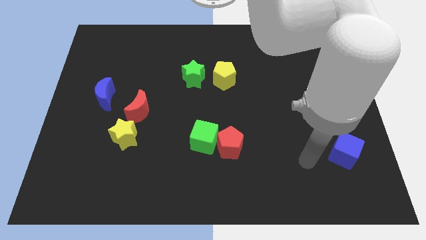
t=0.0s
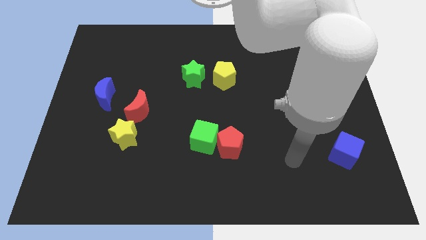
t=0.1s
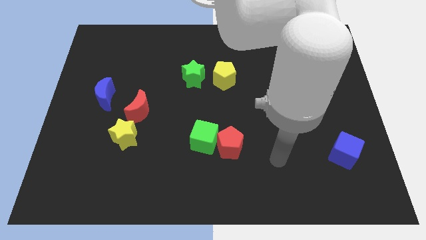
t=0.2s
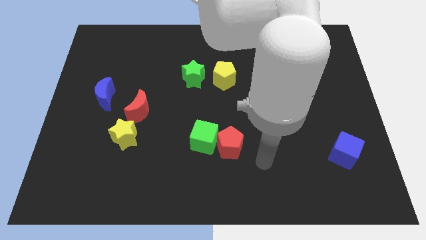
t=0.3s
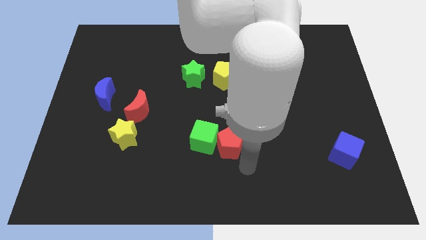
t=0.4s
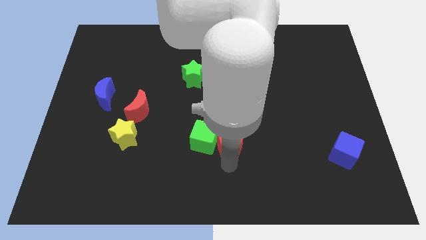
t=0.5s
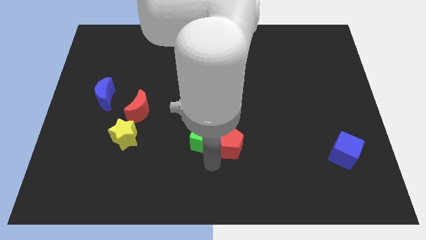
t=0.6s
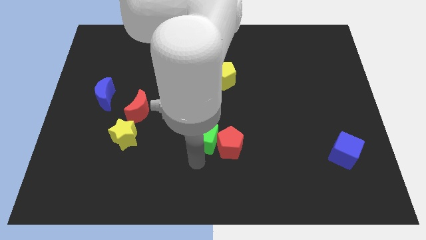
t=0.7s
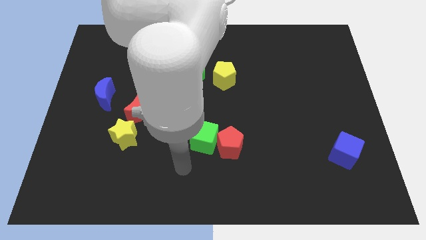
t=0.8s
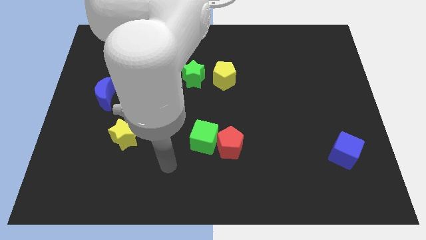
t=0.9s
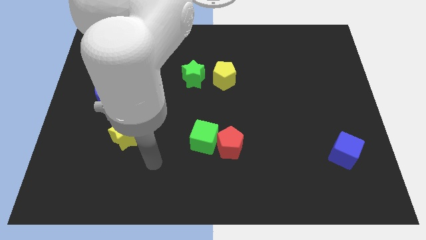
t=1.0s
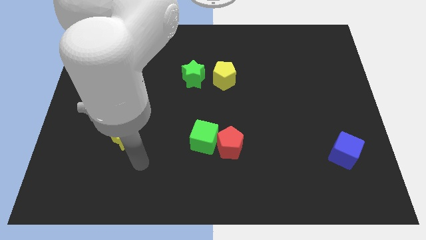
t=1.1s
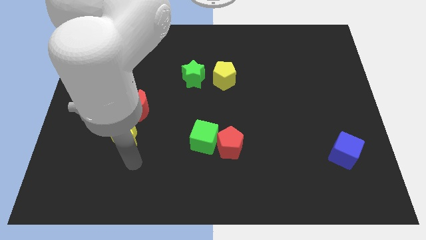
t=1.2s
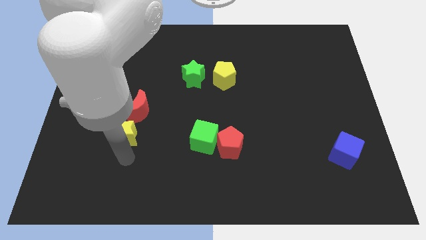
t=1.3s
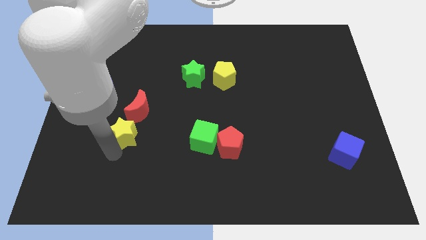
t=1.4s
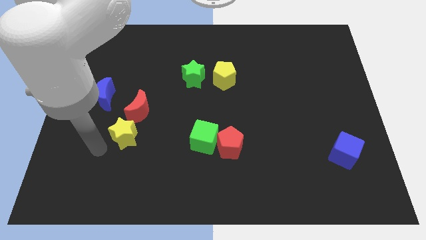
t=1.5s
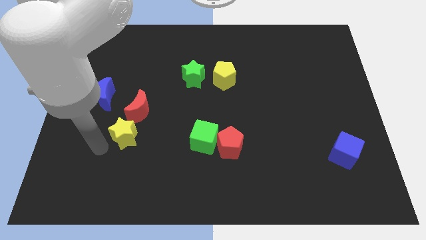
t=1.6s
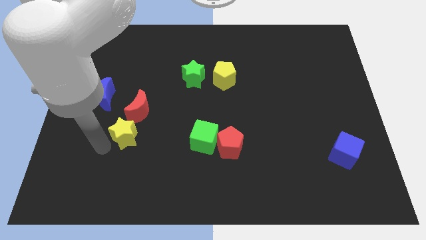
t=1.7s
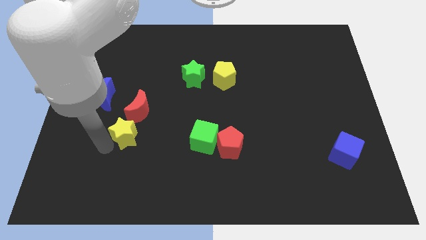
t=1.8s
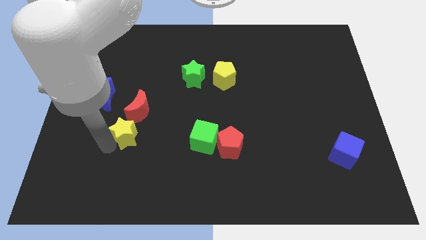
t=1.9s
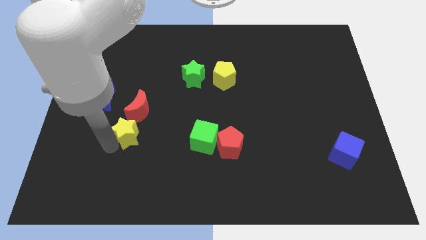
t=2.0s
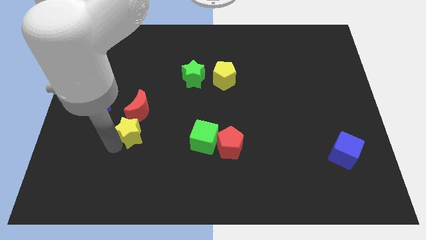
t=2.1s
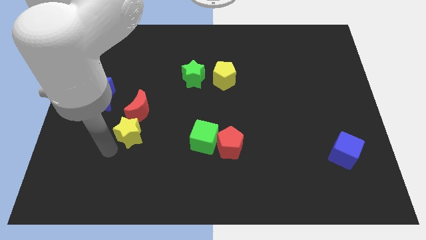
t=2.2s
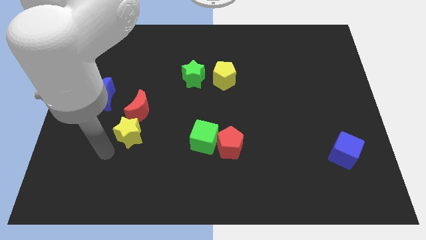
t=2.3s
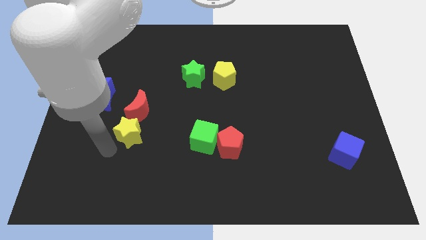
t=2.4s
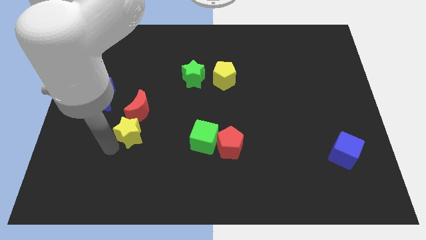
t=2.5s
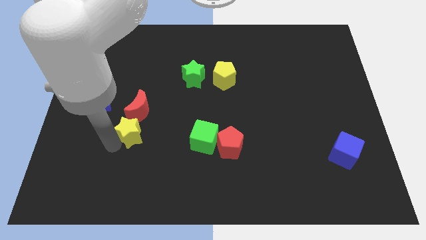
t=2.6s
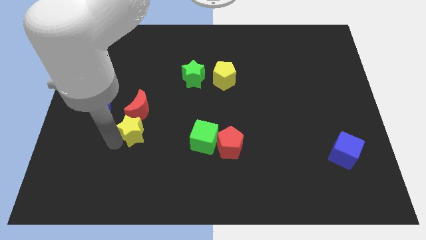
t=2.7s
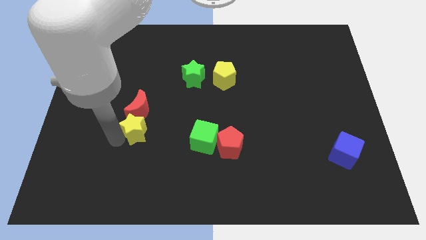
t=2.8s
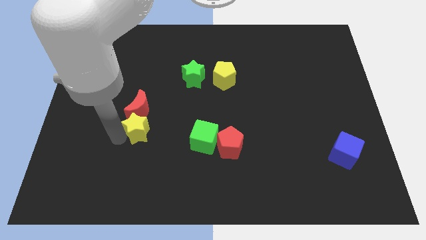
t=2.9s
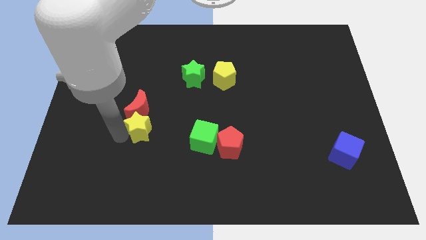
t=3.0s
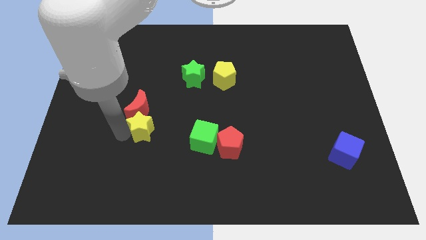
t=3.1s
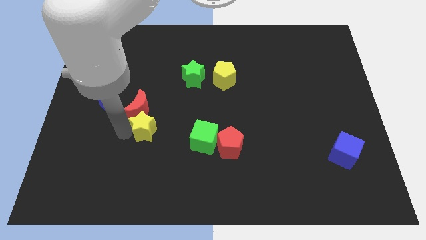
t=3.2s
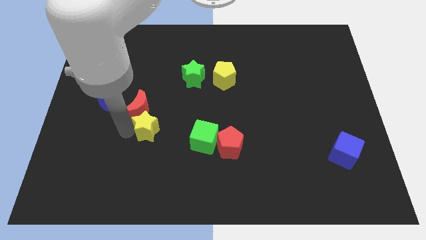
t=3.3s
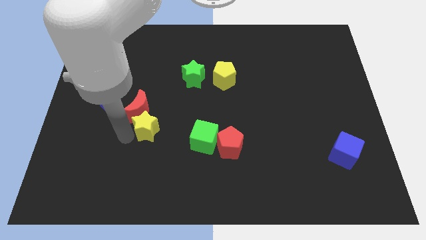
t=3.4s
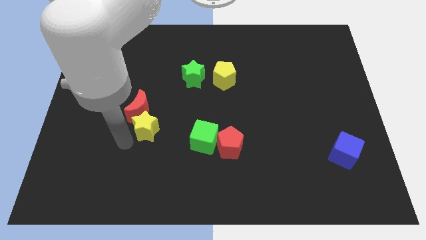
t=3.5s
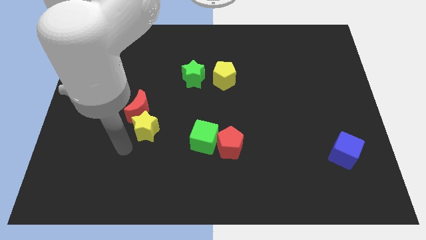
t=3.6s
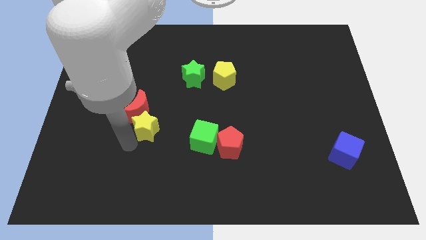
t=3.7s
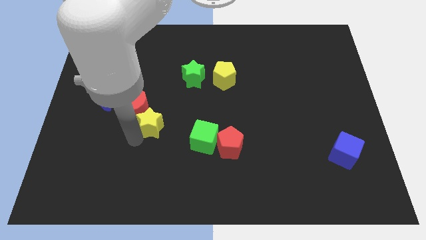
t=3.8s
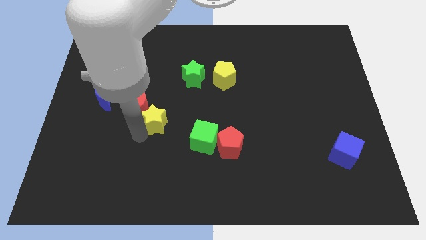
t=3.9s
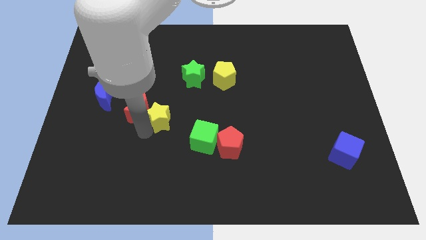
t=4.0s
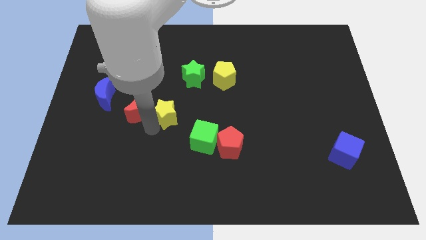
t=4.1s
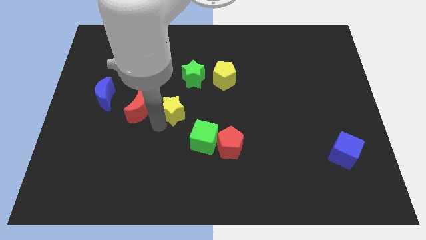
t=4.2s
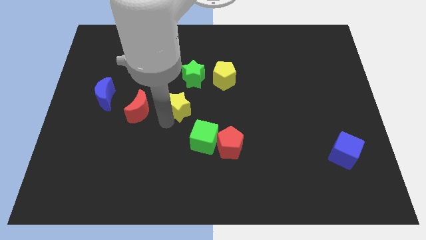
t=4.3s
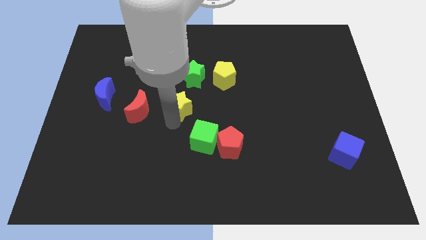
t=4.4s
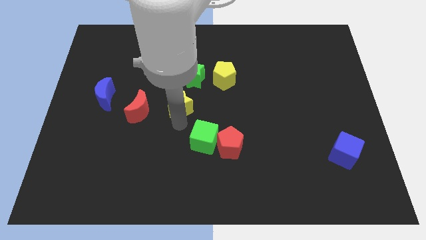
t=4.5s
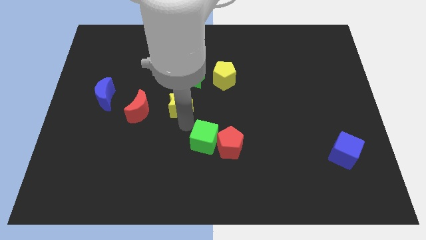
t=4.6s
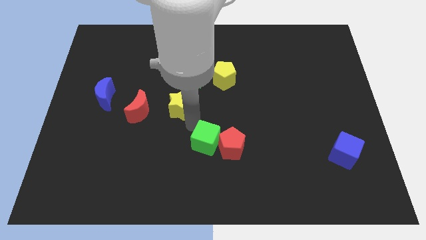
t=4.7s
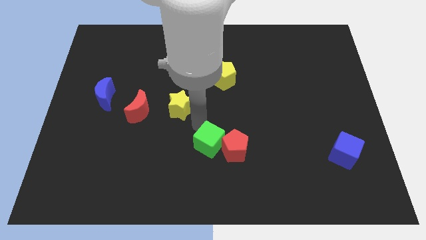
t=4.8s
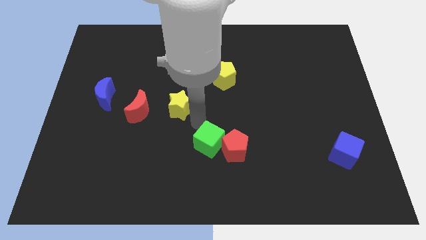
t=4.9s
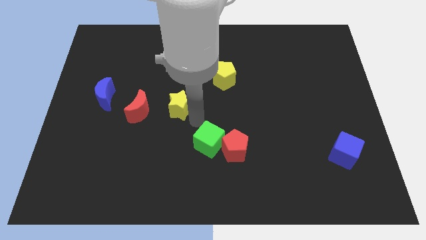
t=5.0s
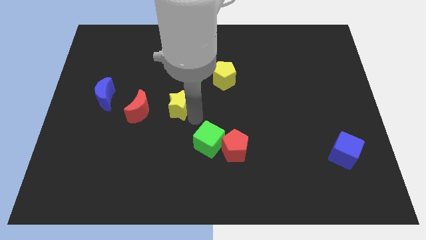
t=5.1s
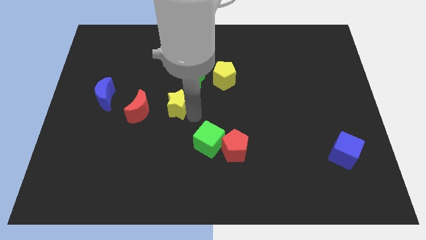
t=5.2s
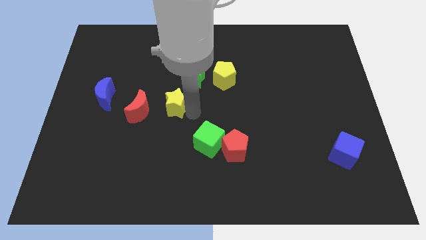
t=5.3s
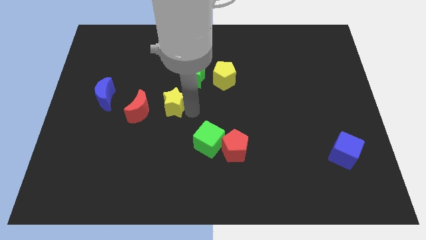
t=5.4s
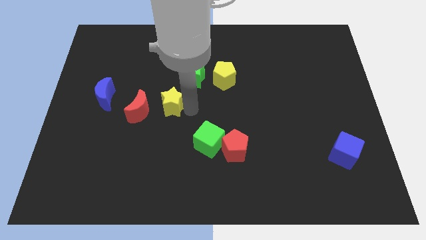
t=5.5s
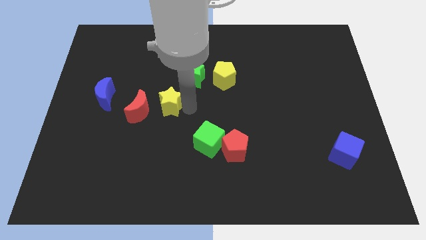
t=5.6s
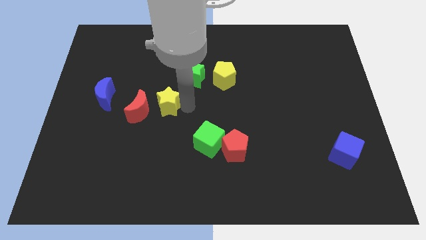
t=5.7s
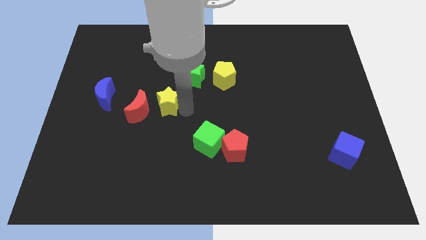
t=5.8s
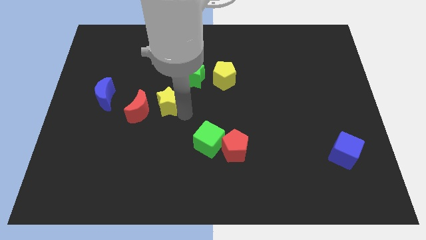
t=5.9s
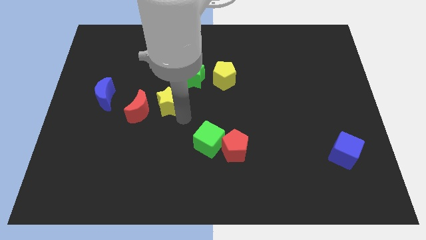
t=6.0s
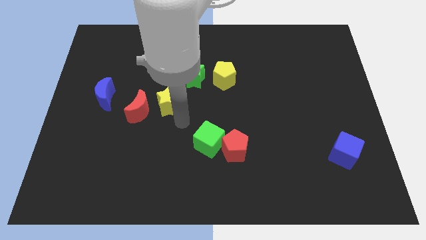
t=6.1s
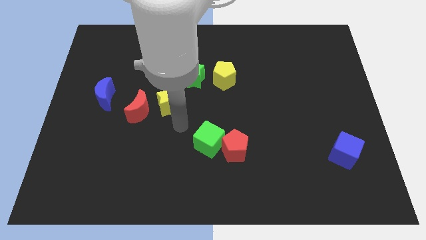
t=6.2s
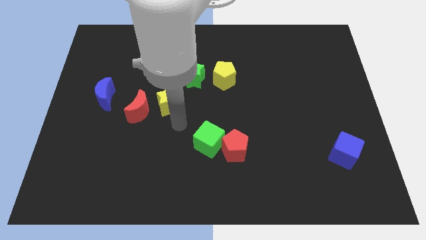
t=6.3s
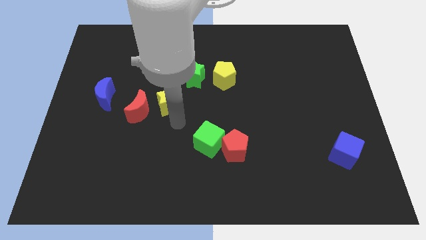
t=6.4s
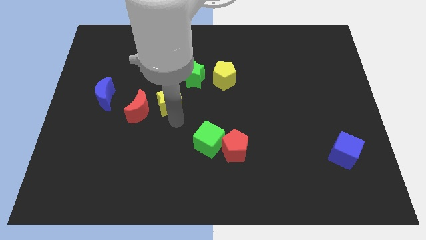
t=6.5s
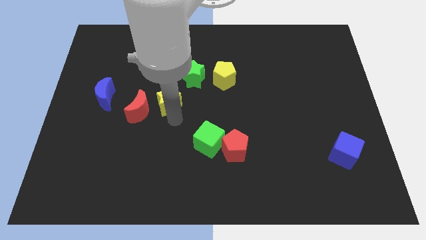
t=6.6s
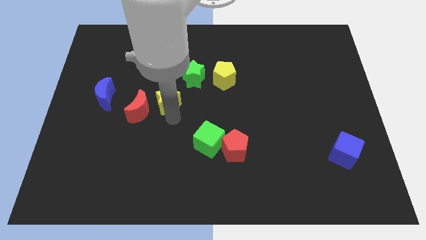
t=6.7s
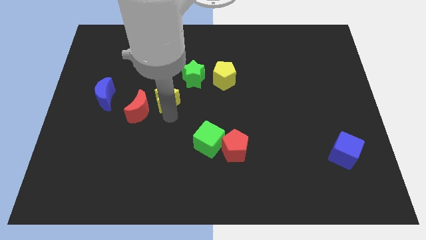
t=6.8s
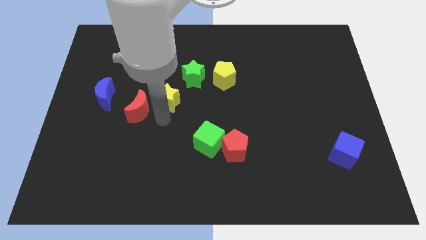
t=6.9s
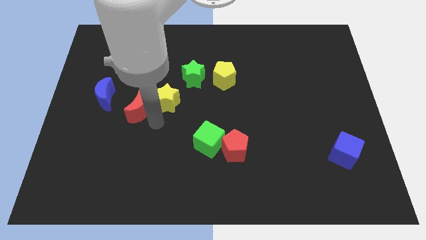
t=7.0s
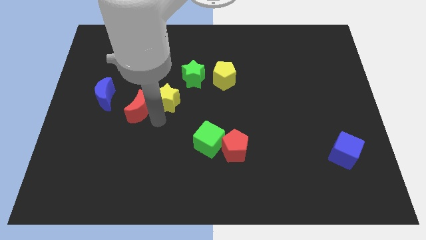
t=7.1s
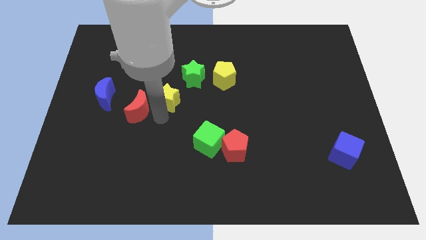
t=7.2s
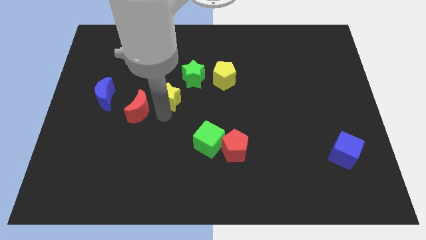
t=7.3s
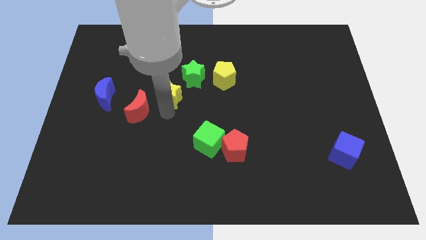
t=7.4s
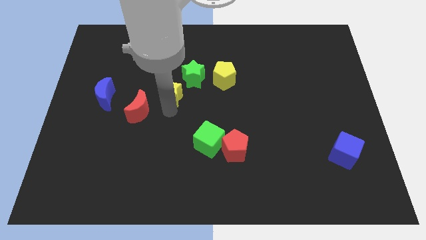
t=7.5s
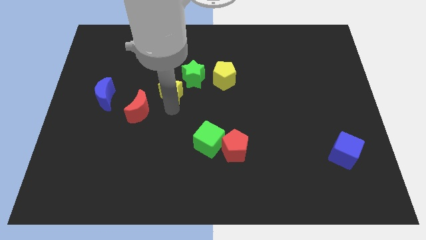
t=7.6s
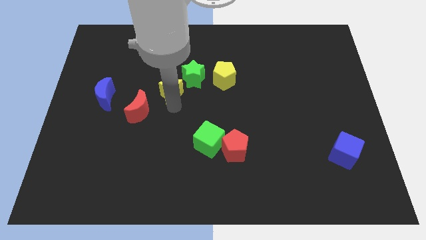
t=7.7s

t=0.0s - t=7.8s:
put the yellow star to the left of the yellow pentagon
